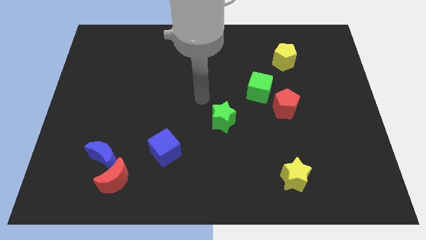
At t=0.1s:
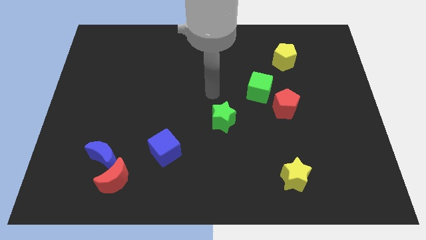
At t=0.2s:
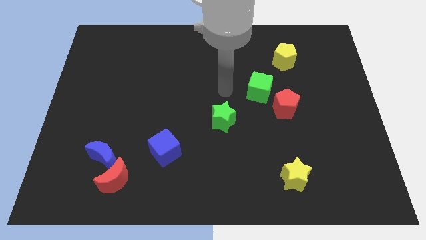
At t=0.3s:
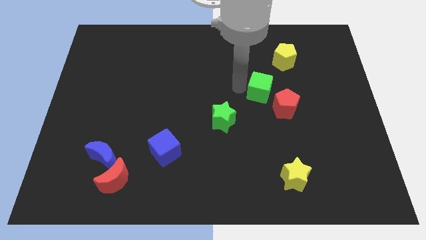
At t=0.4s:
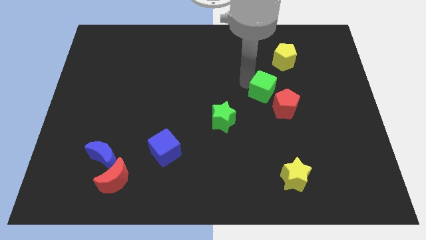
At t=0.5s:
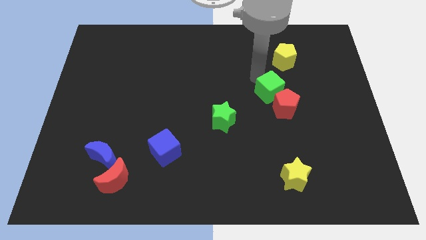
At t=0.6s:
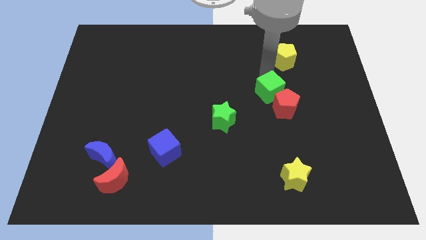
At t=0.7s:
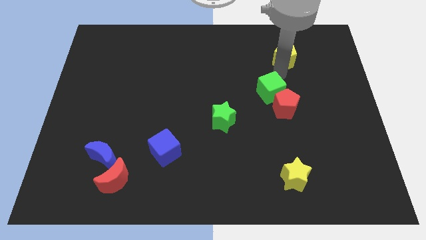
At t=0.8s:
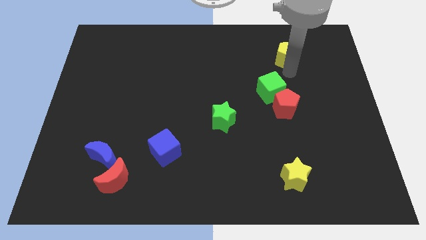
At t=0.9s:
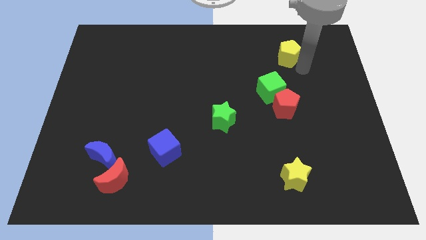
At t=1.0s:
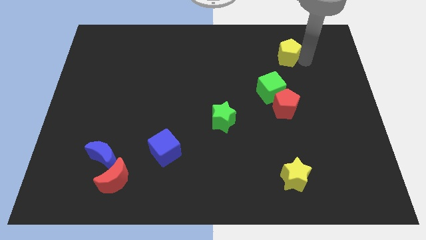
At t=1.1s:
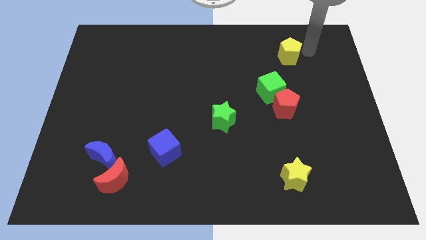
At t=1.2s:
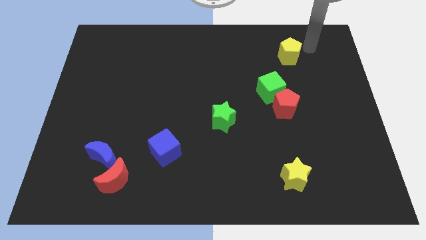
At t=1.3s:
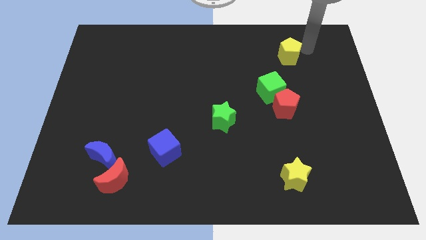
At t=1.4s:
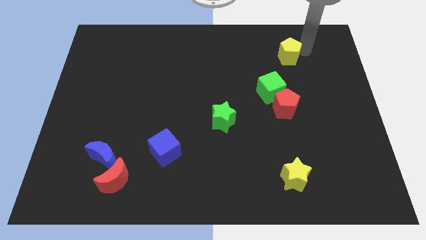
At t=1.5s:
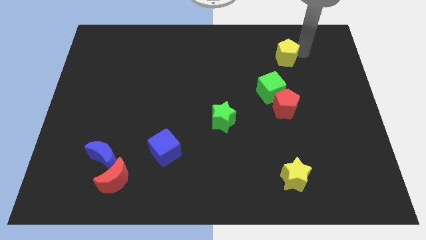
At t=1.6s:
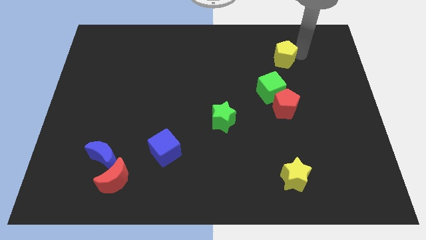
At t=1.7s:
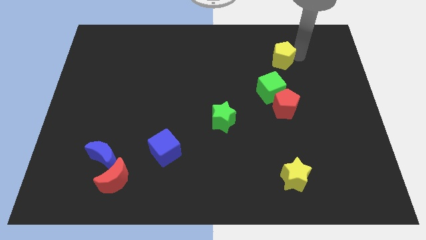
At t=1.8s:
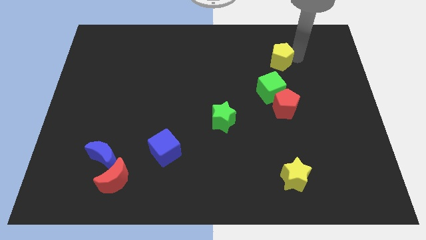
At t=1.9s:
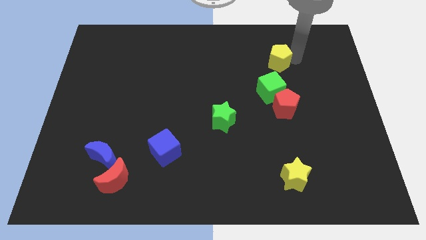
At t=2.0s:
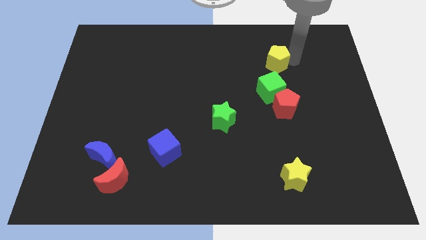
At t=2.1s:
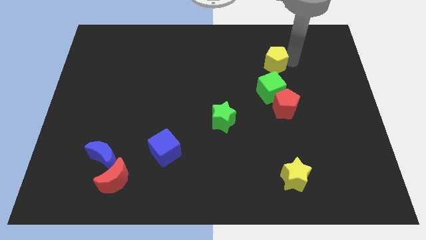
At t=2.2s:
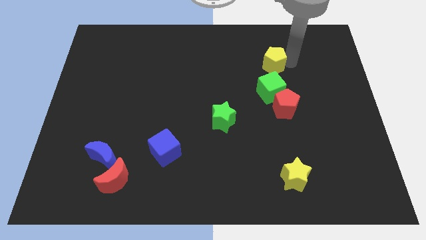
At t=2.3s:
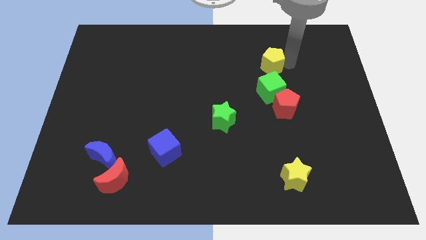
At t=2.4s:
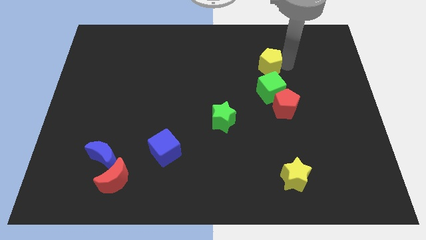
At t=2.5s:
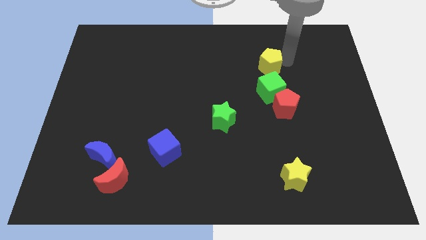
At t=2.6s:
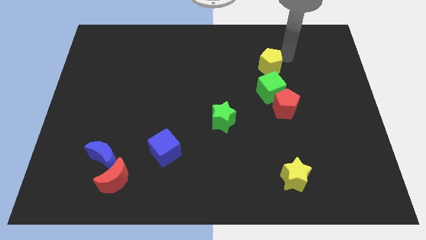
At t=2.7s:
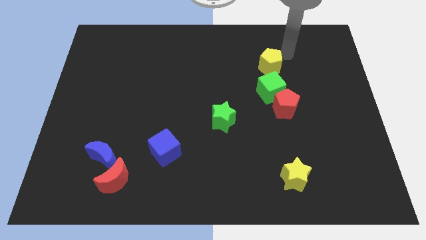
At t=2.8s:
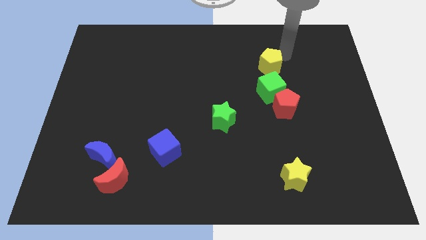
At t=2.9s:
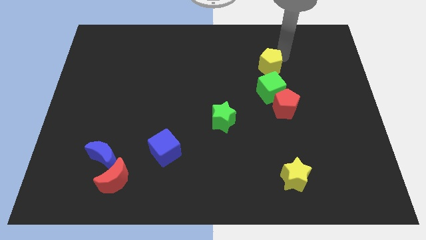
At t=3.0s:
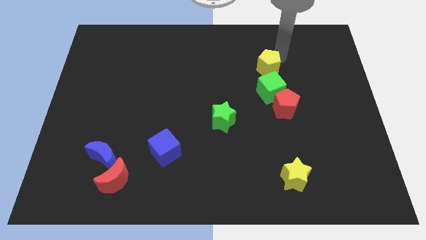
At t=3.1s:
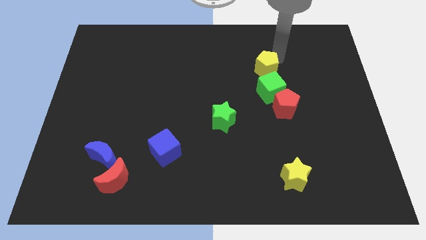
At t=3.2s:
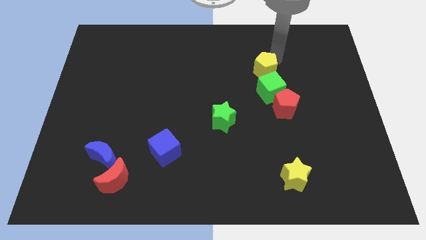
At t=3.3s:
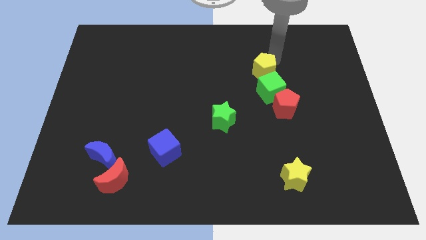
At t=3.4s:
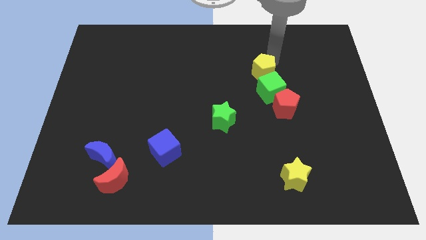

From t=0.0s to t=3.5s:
slightly move the yellow pentagon diagonally downwards and to the left

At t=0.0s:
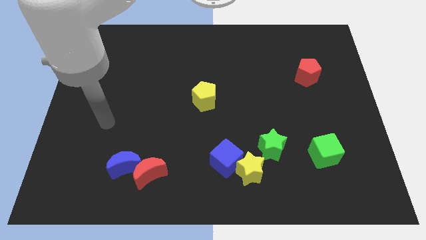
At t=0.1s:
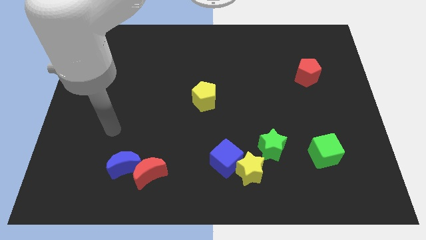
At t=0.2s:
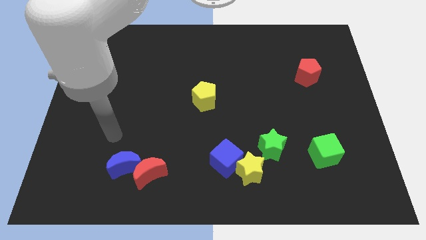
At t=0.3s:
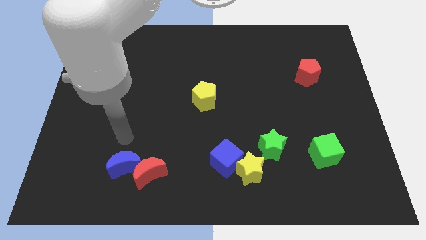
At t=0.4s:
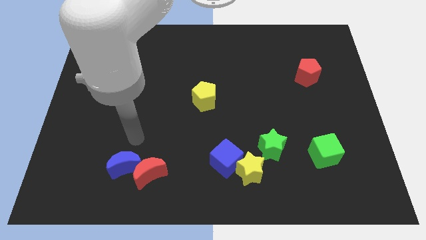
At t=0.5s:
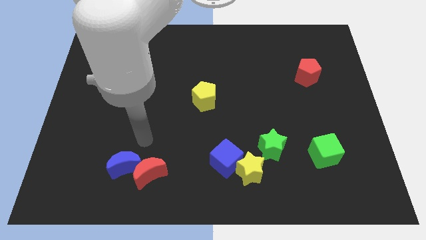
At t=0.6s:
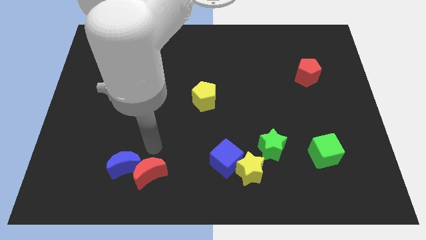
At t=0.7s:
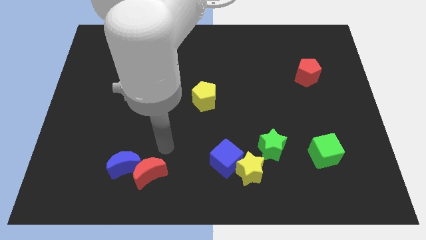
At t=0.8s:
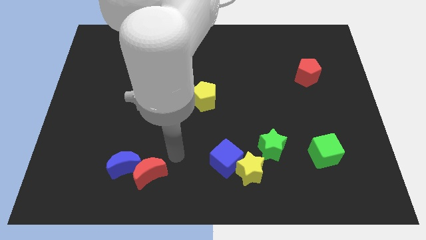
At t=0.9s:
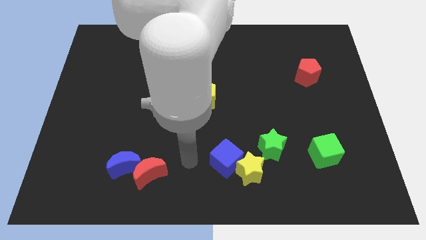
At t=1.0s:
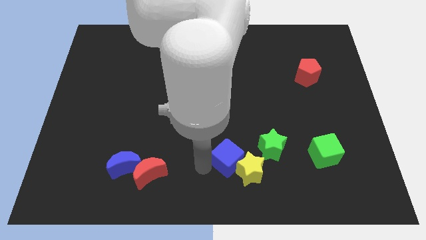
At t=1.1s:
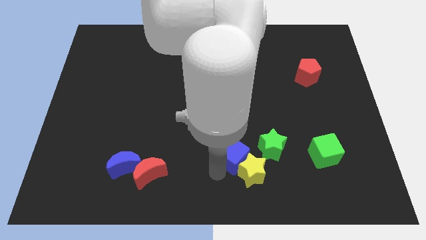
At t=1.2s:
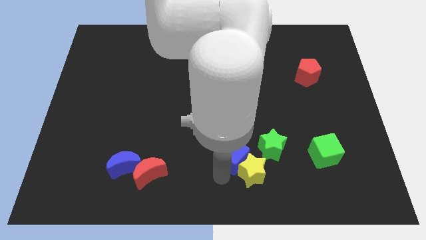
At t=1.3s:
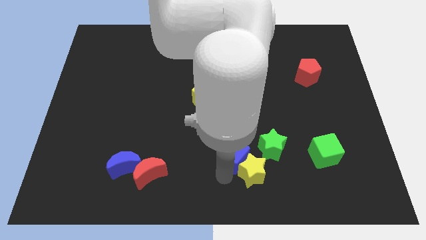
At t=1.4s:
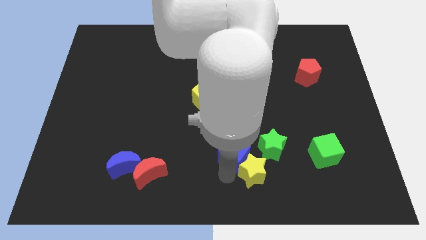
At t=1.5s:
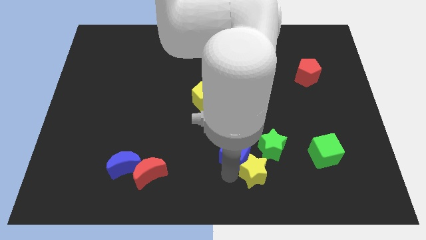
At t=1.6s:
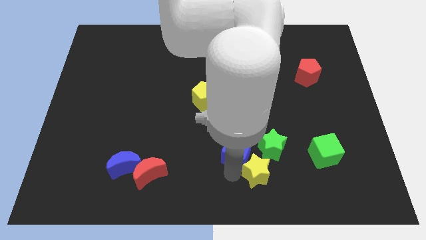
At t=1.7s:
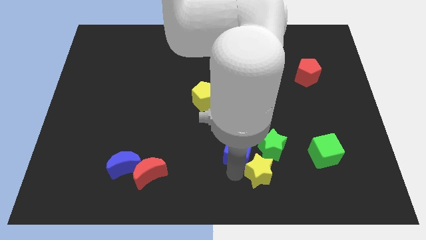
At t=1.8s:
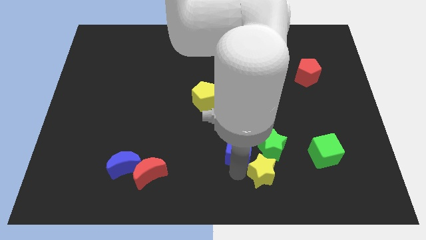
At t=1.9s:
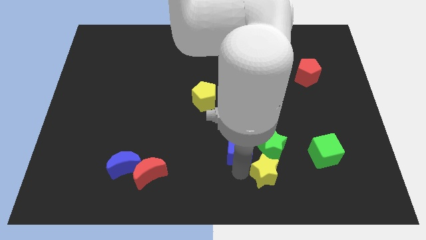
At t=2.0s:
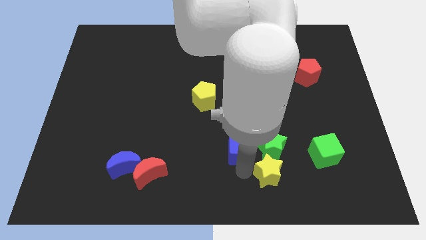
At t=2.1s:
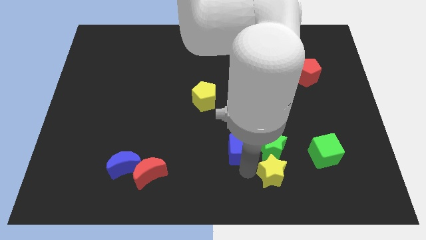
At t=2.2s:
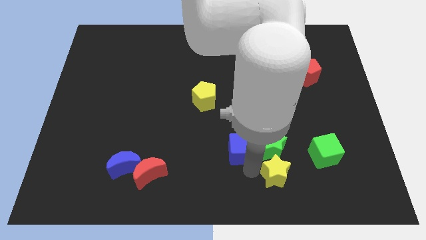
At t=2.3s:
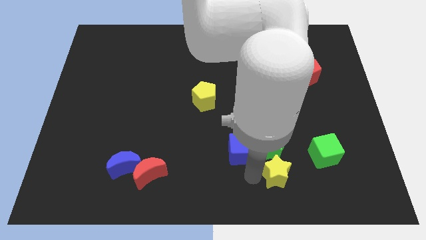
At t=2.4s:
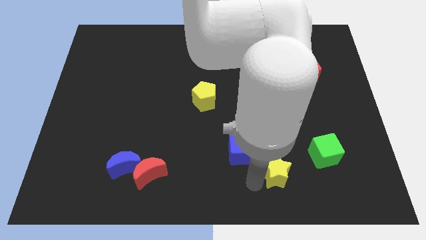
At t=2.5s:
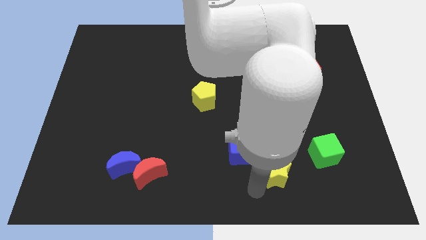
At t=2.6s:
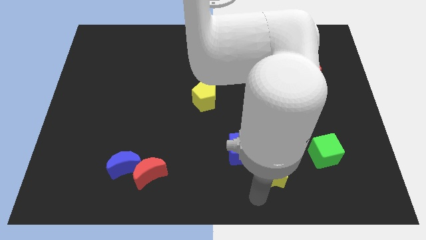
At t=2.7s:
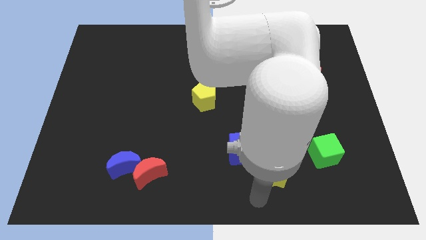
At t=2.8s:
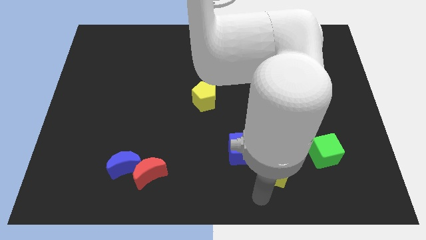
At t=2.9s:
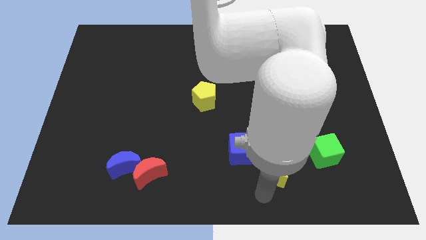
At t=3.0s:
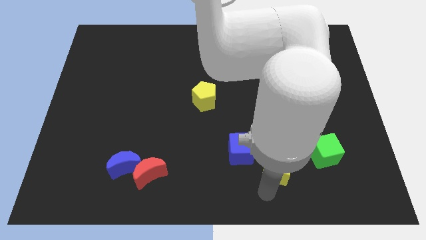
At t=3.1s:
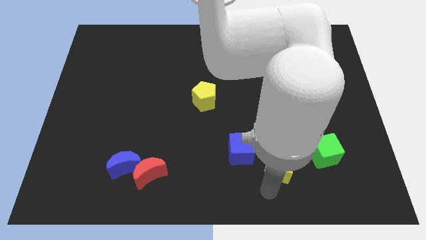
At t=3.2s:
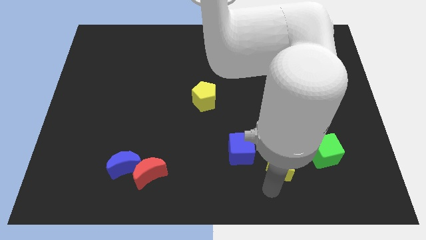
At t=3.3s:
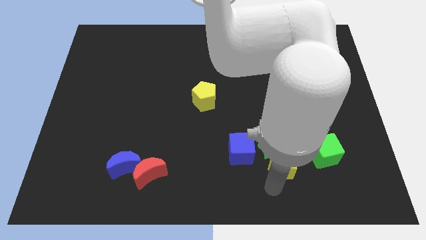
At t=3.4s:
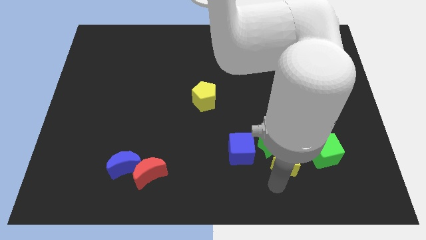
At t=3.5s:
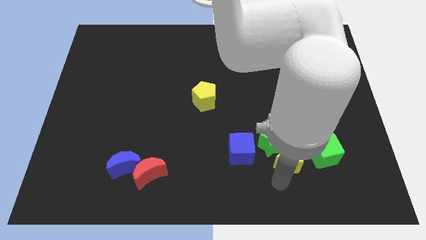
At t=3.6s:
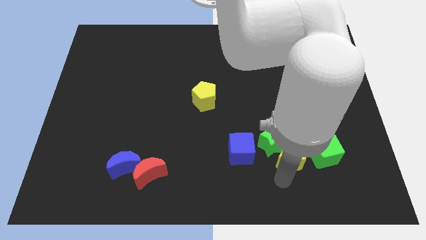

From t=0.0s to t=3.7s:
slightly push the yellow star diagonally up and to the right

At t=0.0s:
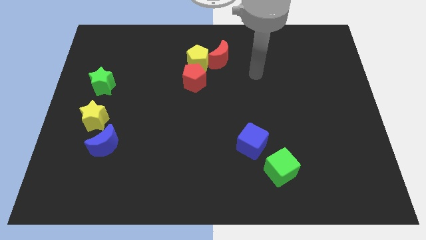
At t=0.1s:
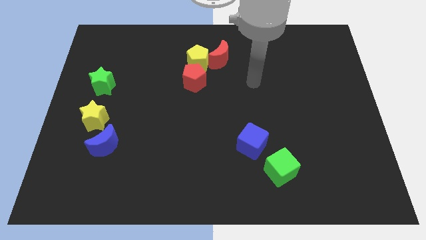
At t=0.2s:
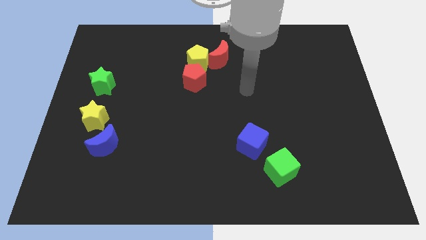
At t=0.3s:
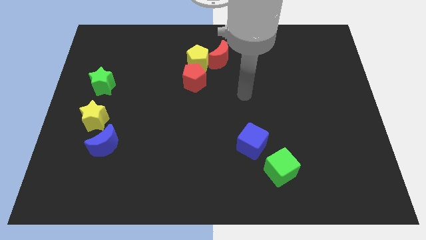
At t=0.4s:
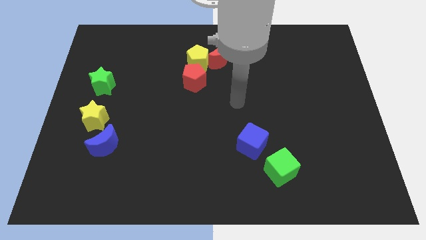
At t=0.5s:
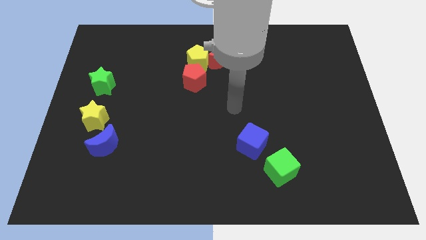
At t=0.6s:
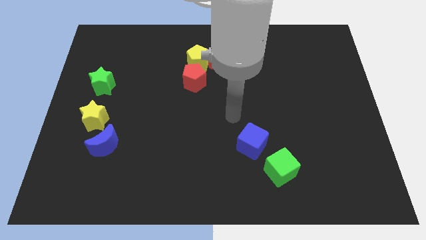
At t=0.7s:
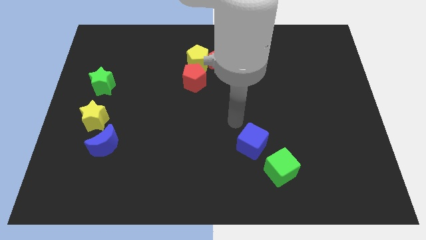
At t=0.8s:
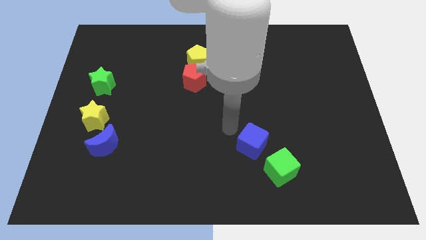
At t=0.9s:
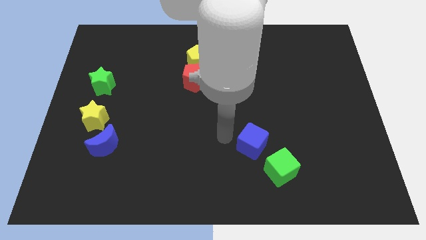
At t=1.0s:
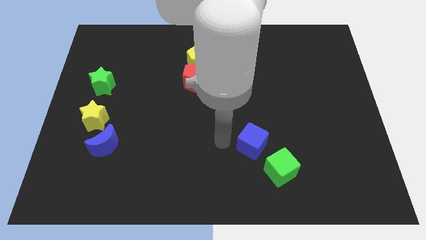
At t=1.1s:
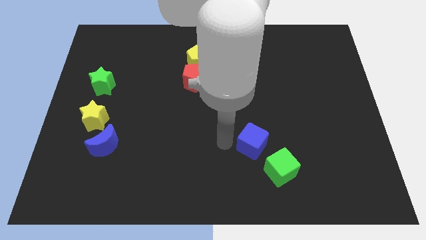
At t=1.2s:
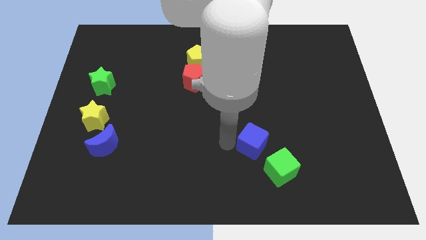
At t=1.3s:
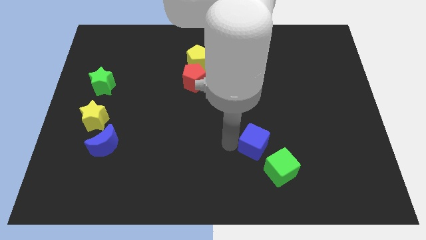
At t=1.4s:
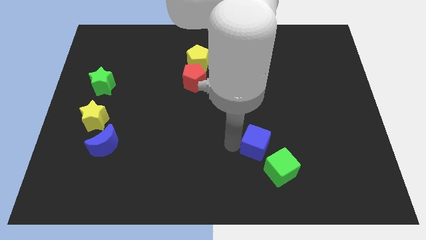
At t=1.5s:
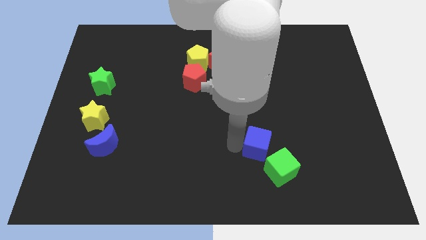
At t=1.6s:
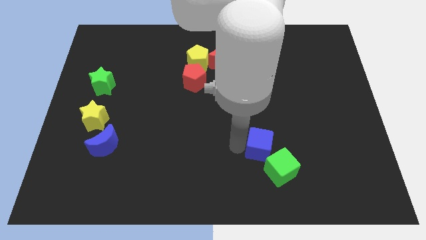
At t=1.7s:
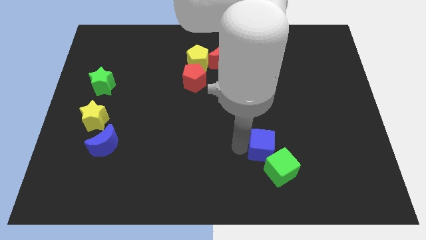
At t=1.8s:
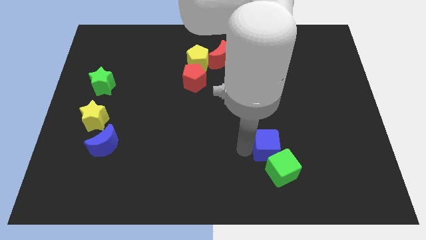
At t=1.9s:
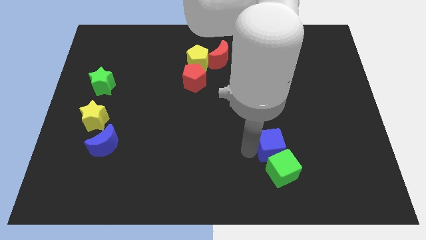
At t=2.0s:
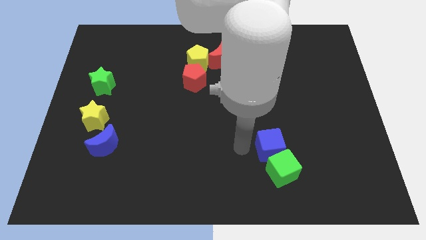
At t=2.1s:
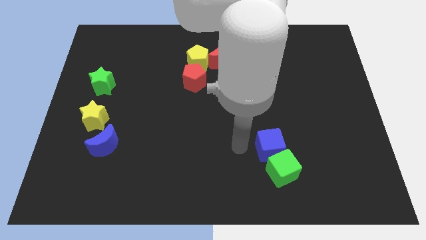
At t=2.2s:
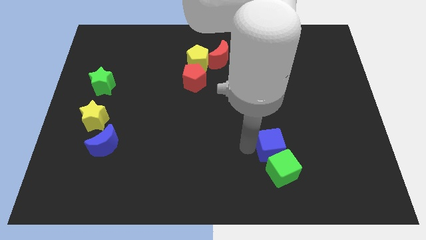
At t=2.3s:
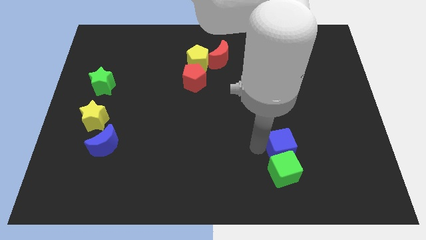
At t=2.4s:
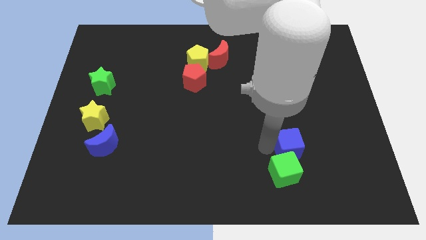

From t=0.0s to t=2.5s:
push the blue cube a little right
